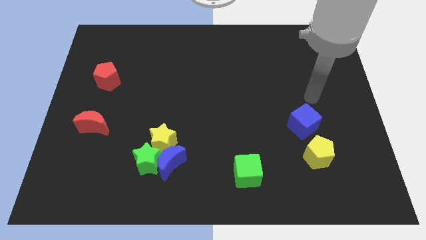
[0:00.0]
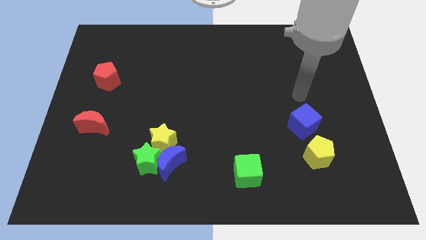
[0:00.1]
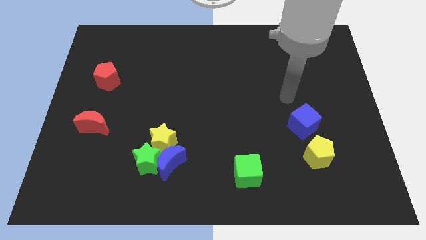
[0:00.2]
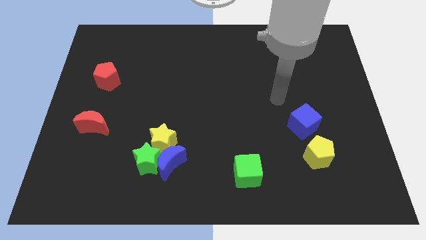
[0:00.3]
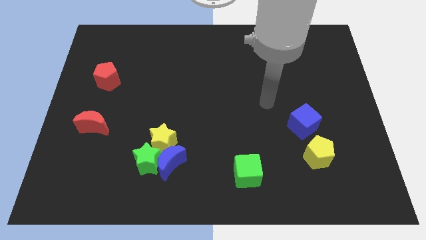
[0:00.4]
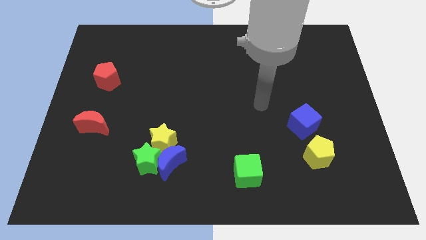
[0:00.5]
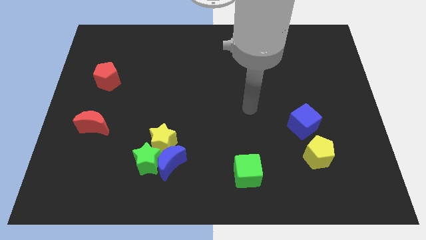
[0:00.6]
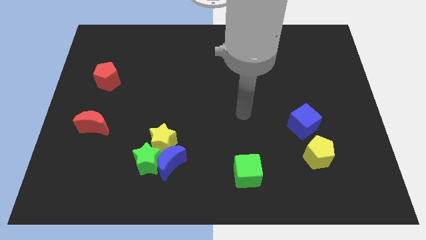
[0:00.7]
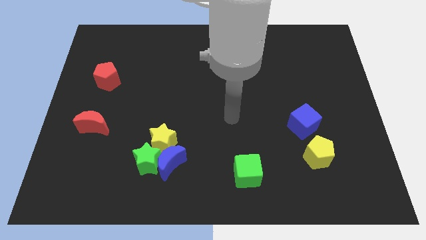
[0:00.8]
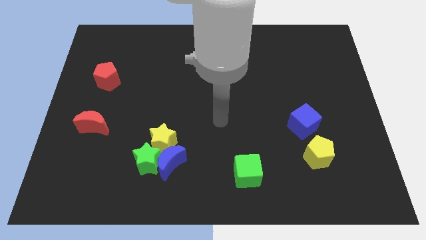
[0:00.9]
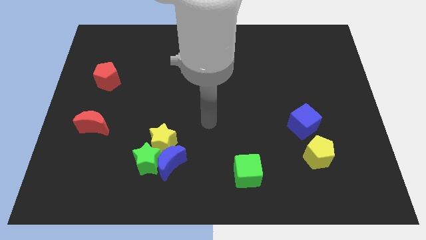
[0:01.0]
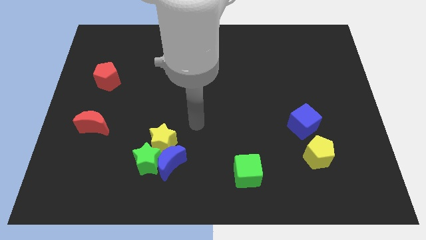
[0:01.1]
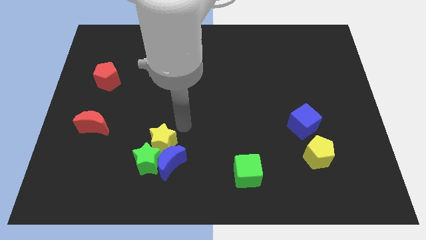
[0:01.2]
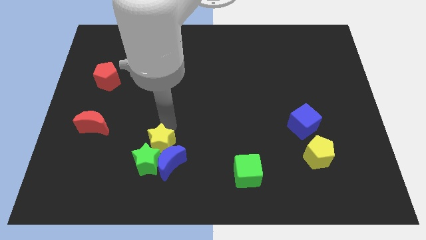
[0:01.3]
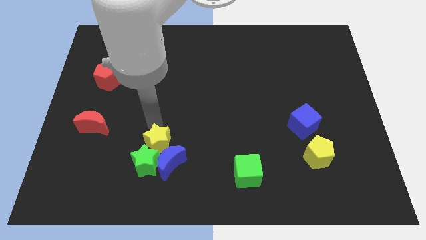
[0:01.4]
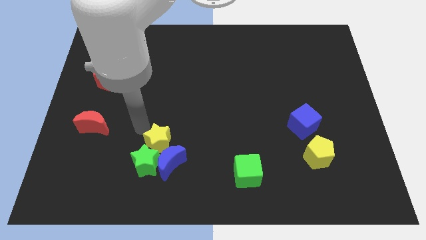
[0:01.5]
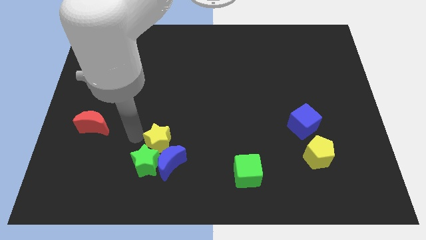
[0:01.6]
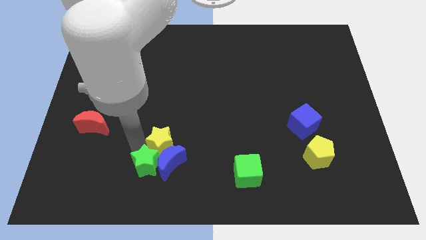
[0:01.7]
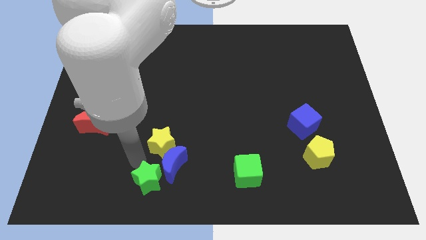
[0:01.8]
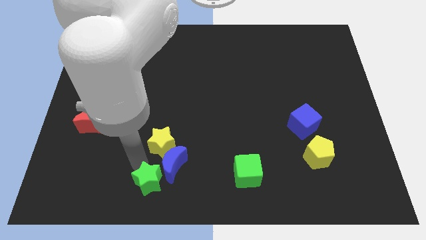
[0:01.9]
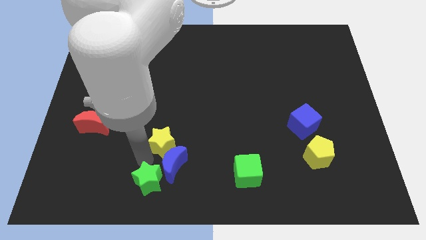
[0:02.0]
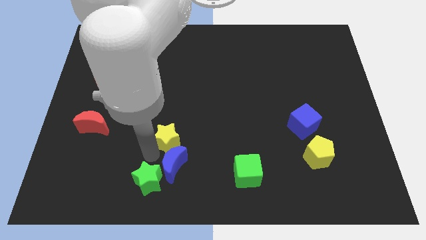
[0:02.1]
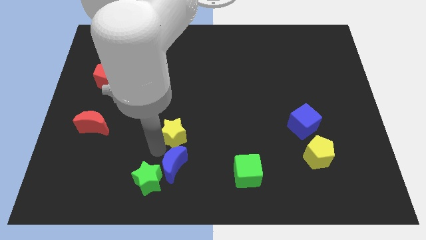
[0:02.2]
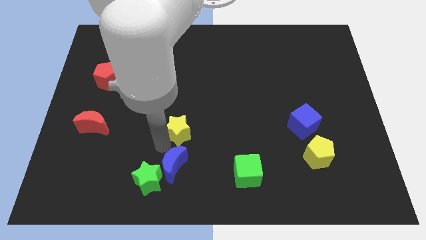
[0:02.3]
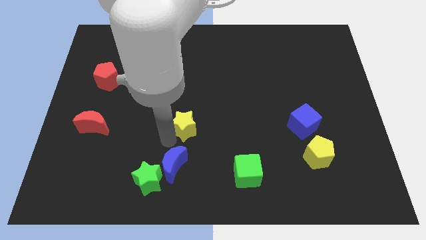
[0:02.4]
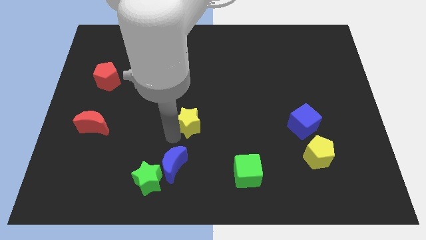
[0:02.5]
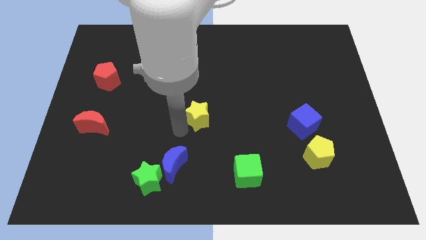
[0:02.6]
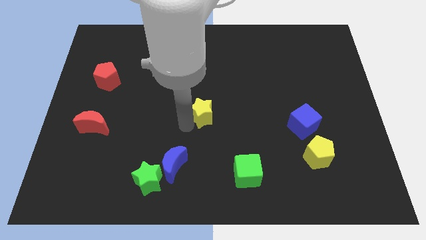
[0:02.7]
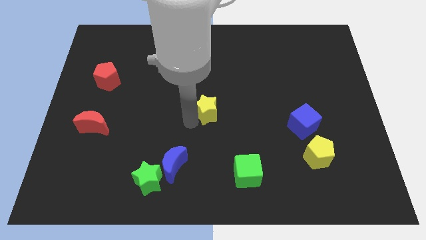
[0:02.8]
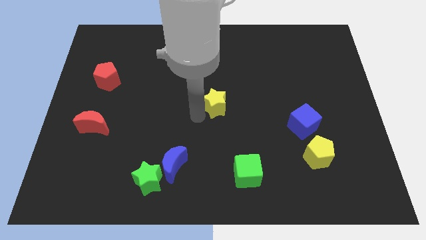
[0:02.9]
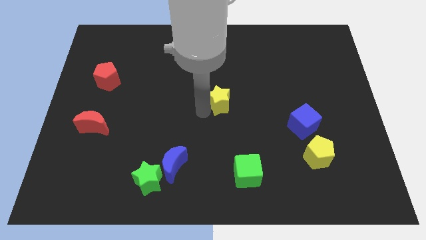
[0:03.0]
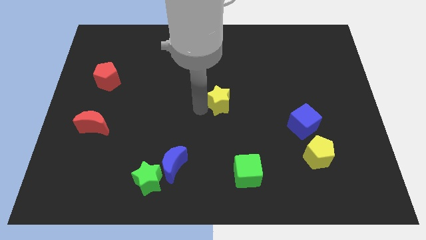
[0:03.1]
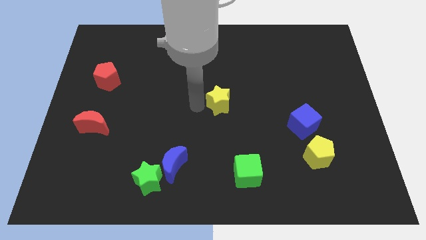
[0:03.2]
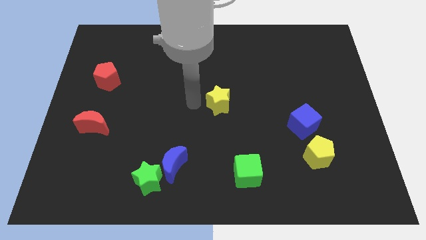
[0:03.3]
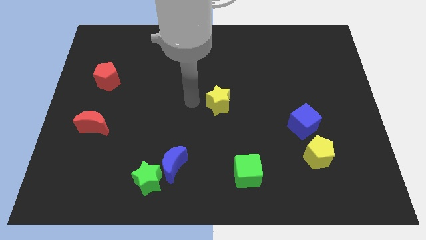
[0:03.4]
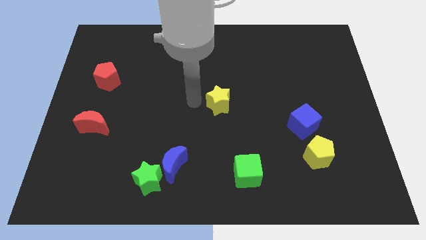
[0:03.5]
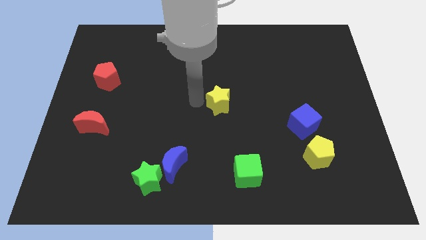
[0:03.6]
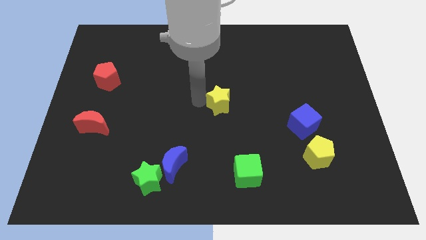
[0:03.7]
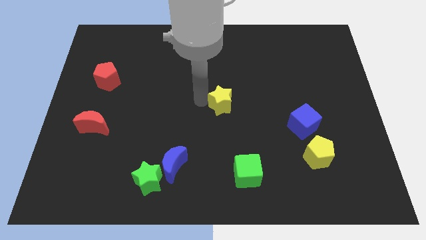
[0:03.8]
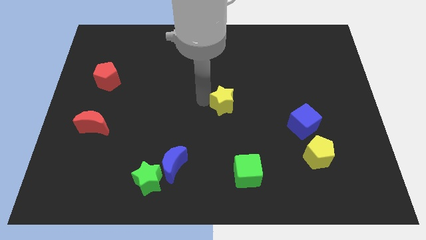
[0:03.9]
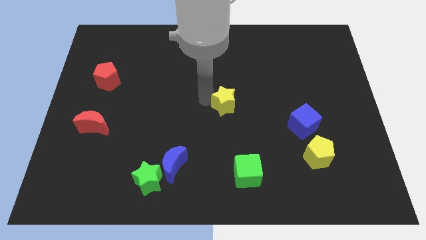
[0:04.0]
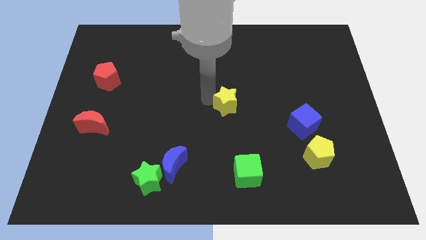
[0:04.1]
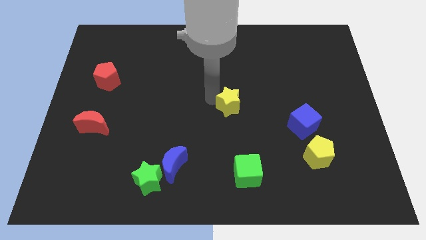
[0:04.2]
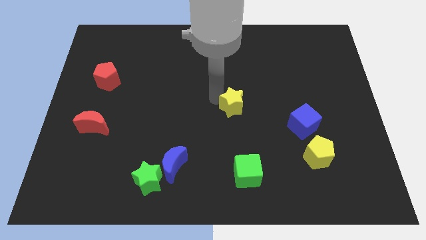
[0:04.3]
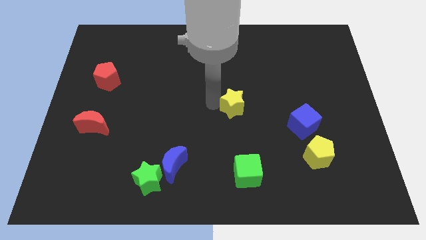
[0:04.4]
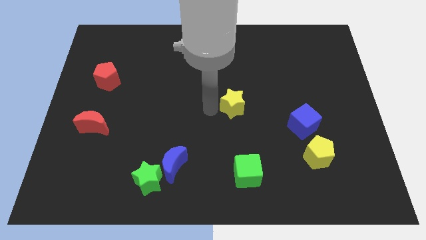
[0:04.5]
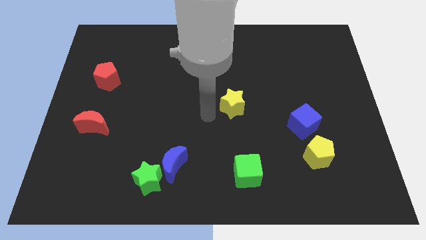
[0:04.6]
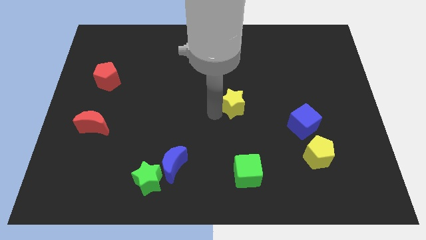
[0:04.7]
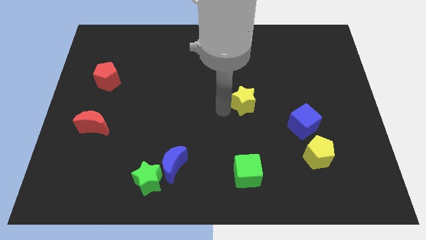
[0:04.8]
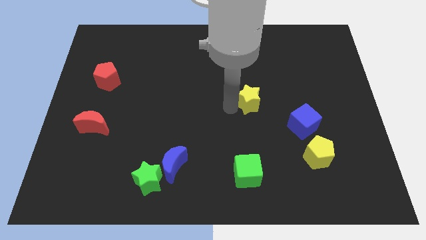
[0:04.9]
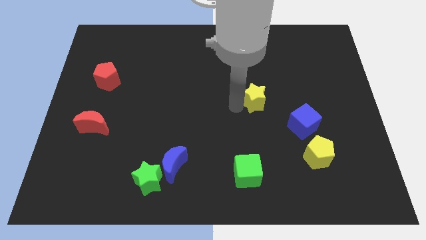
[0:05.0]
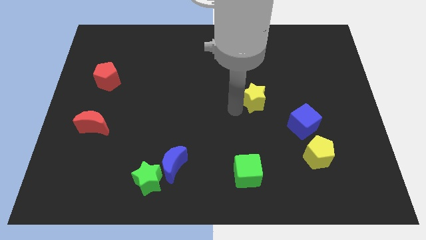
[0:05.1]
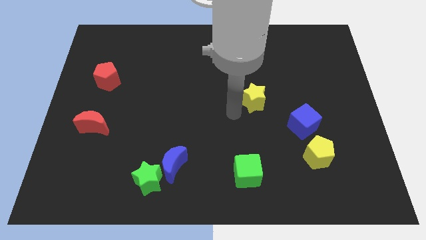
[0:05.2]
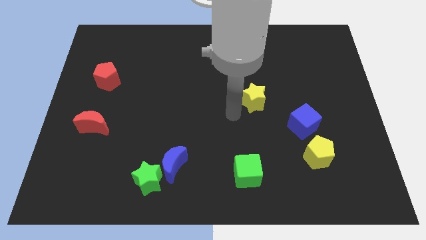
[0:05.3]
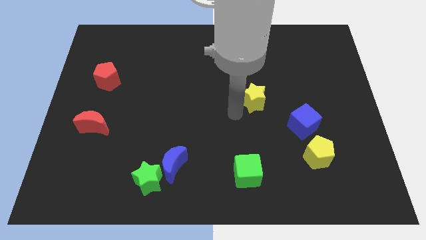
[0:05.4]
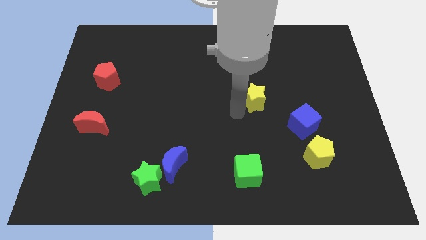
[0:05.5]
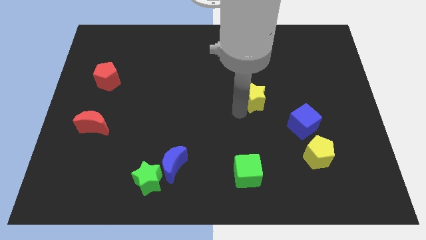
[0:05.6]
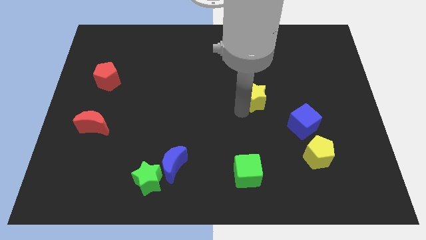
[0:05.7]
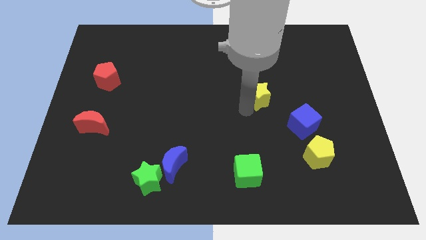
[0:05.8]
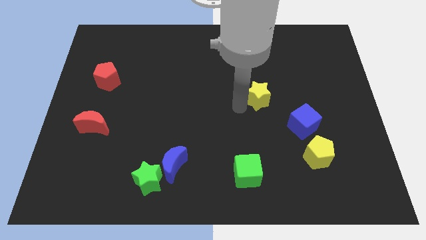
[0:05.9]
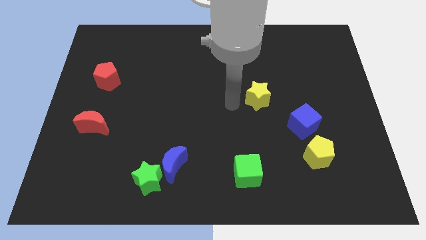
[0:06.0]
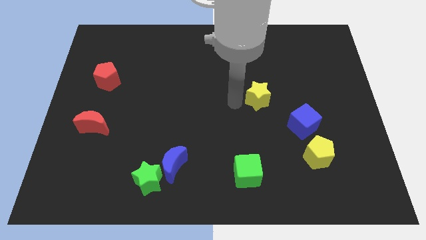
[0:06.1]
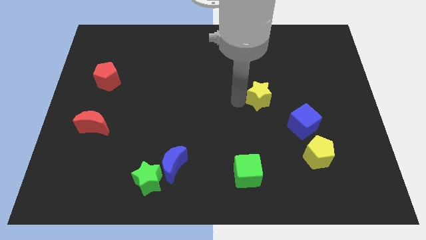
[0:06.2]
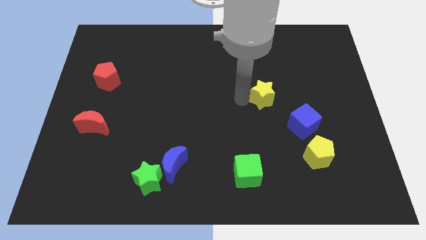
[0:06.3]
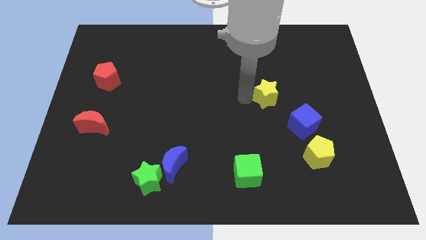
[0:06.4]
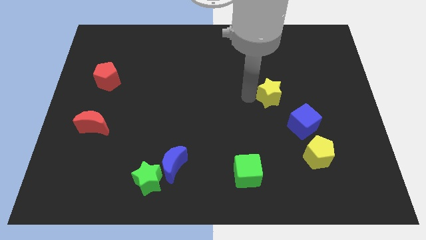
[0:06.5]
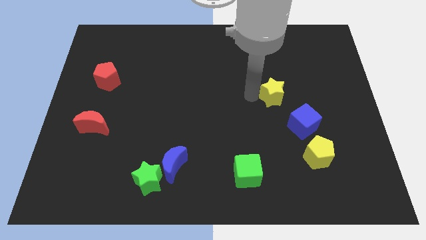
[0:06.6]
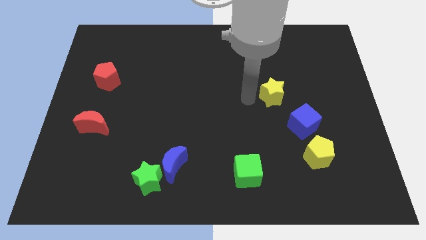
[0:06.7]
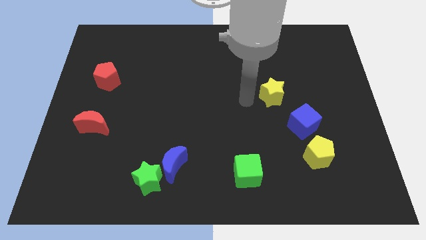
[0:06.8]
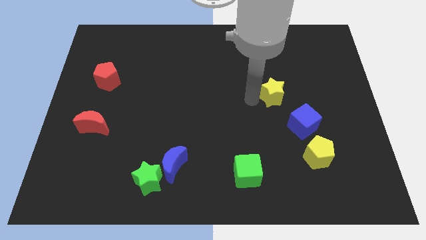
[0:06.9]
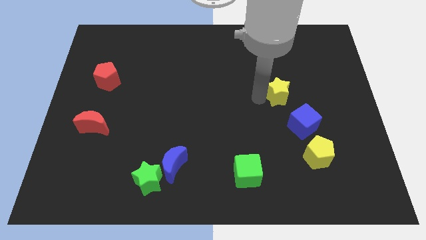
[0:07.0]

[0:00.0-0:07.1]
push the yellow star to the top side of the blue cube
